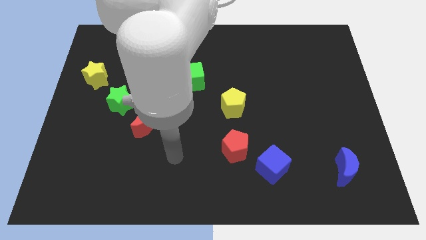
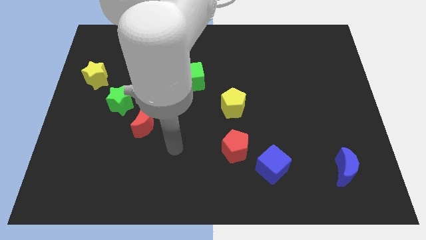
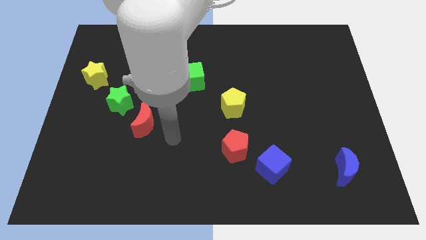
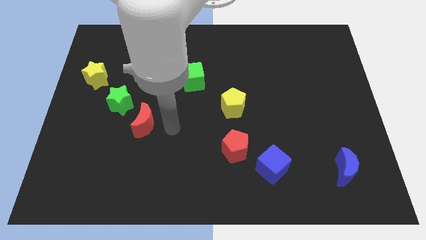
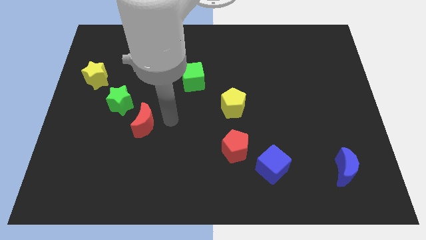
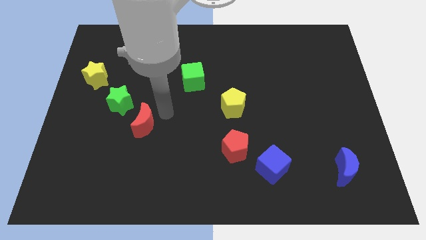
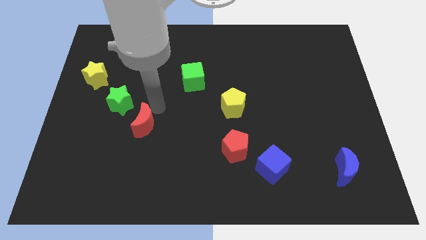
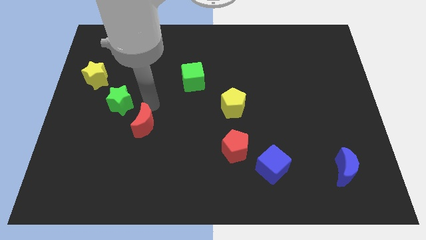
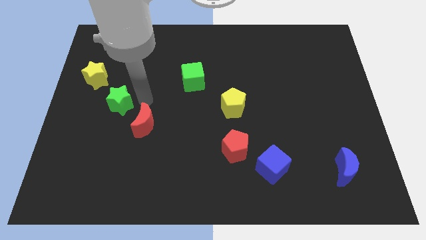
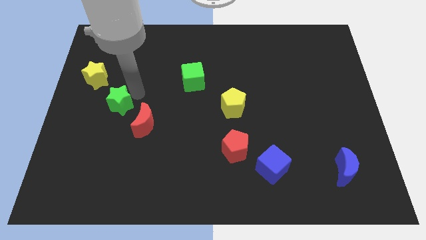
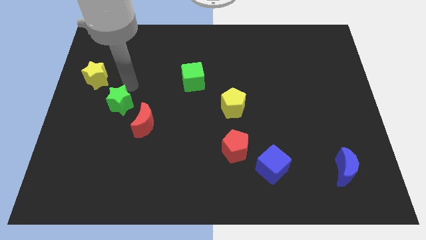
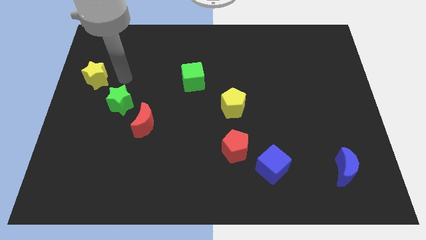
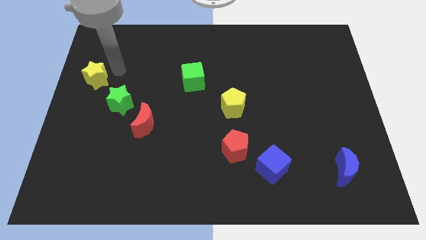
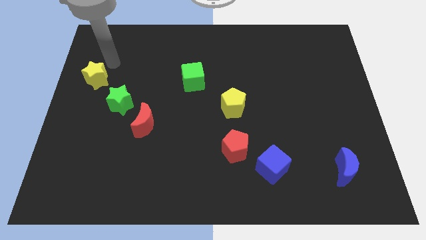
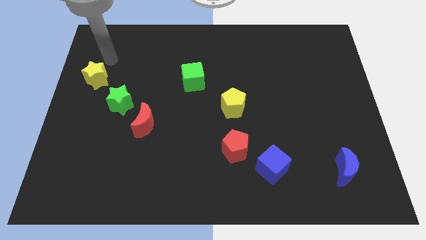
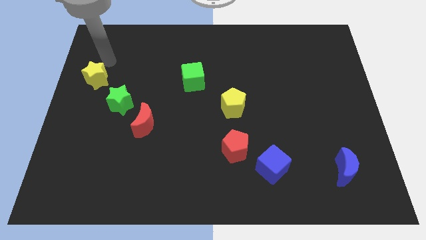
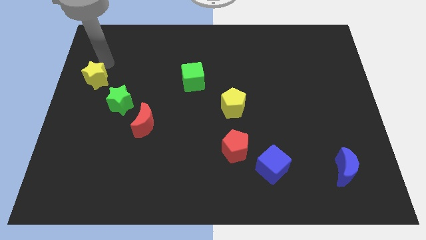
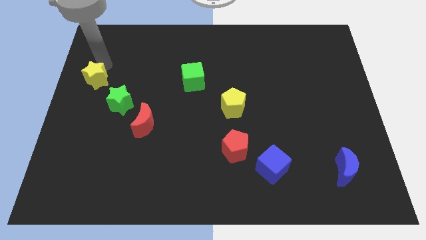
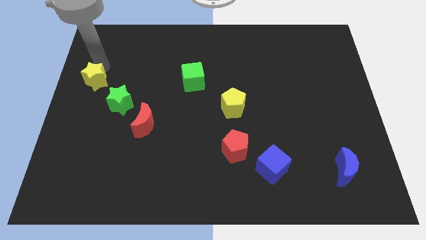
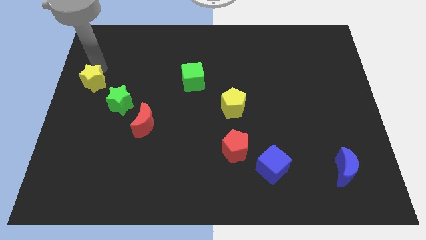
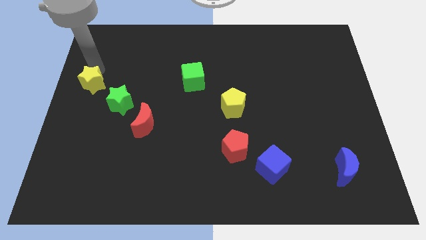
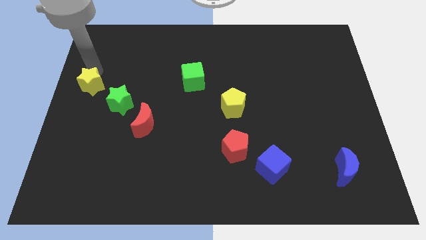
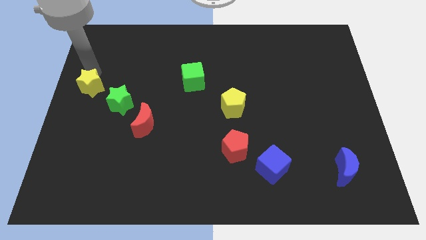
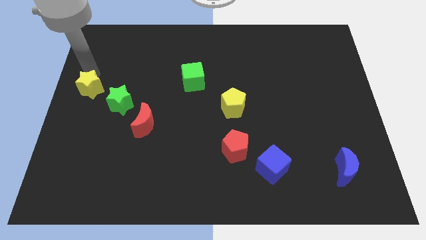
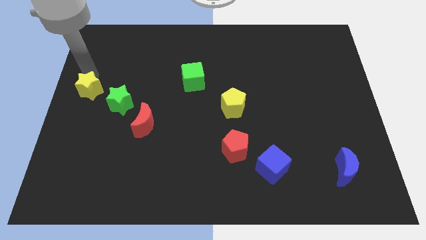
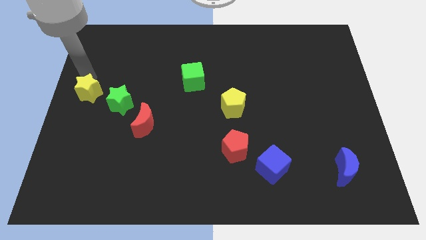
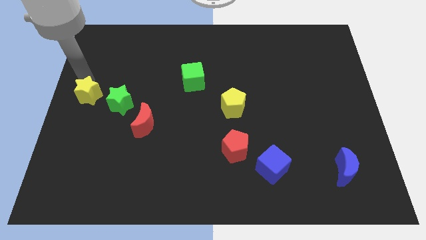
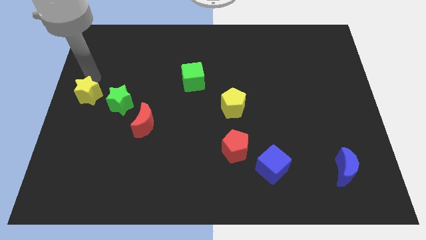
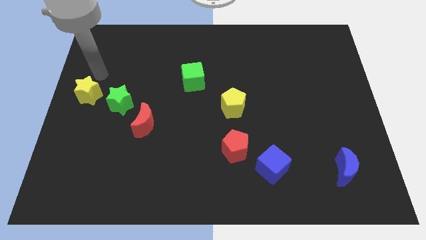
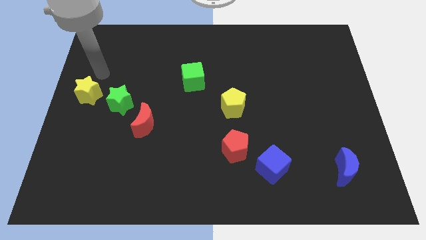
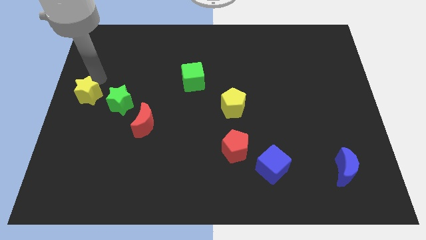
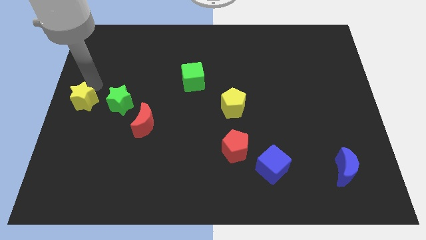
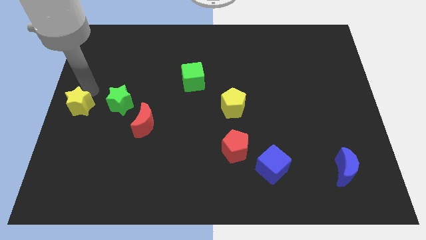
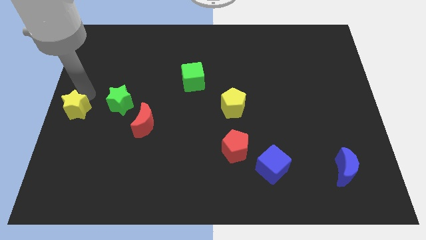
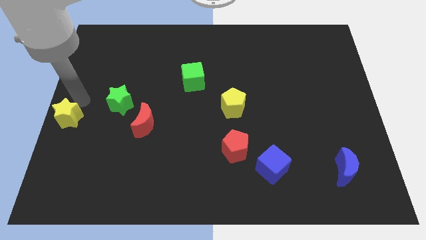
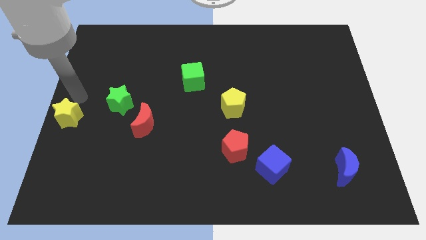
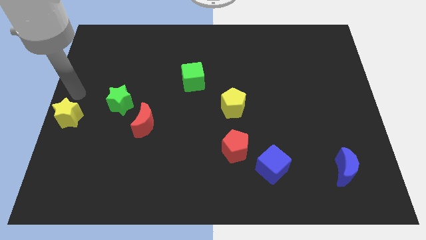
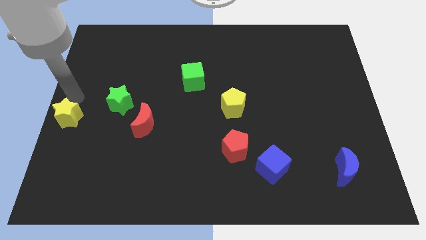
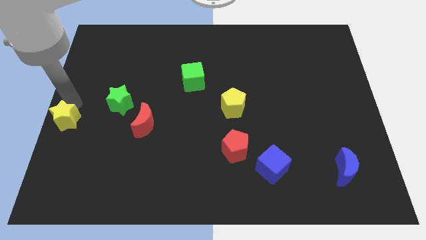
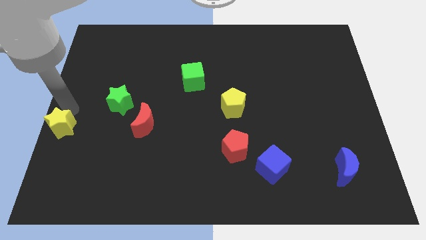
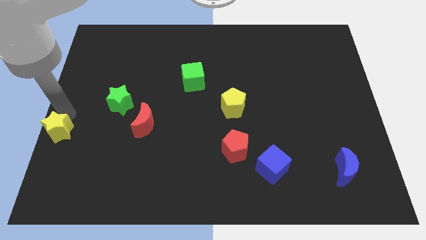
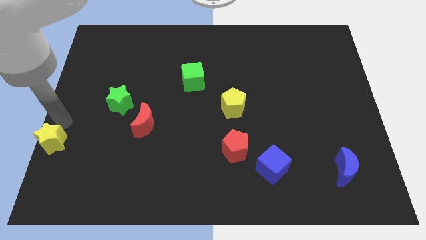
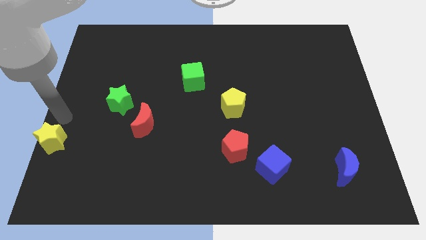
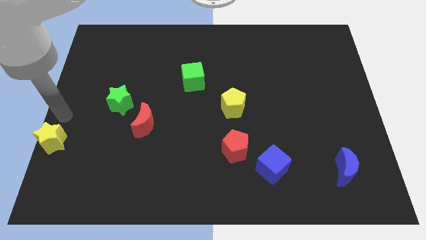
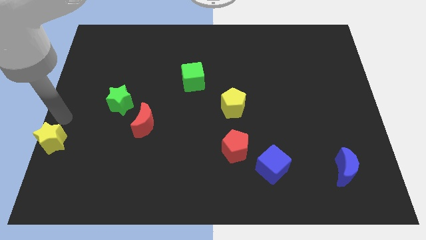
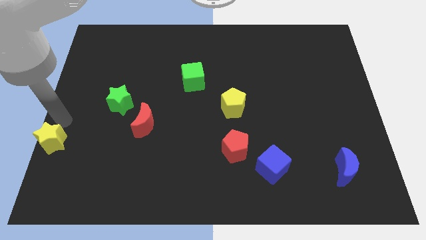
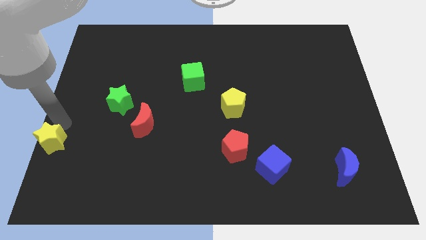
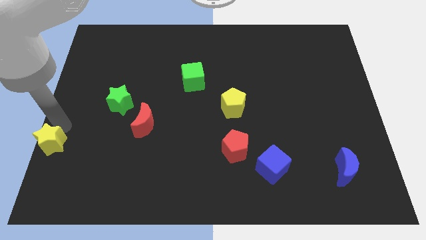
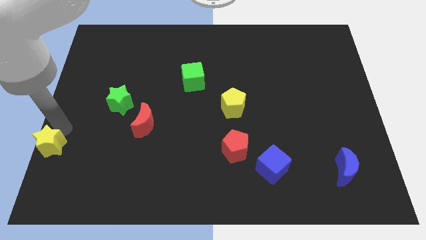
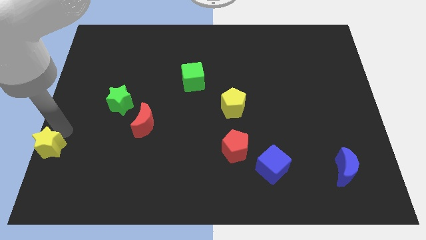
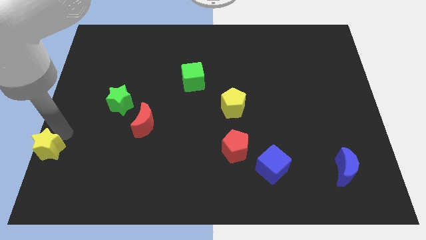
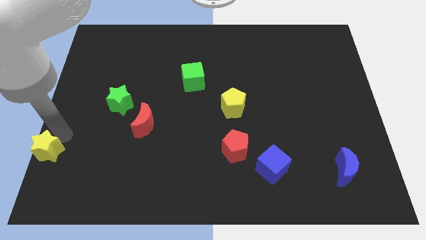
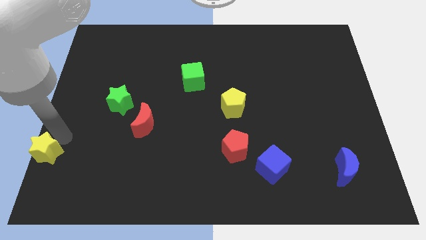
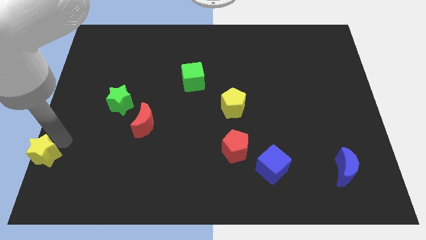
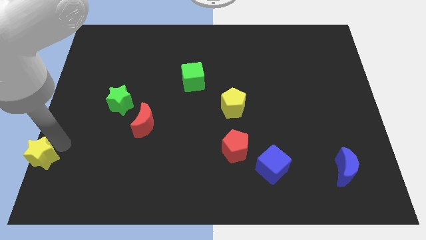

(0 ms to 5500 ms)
put the yellow star to the bottom left corner

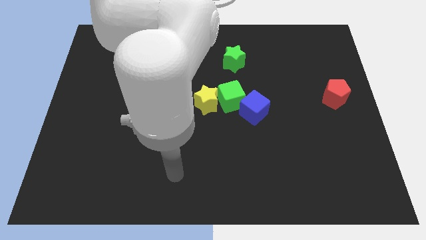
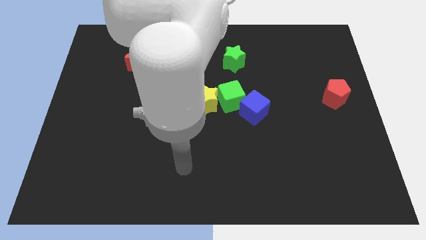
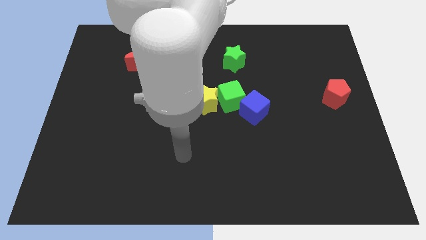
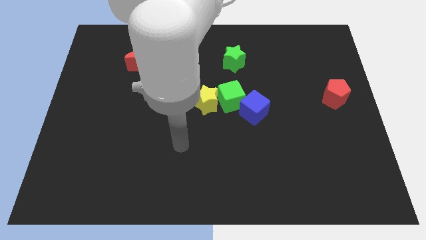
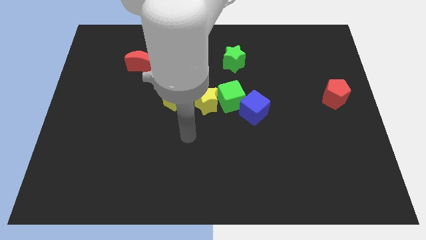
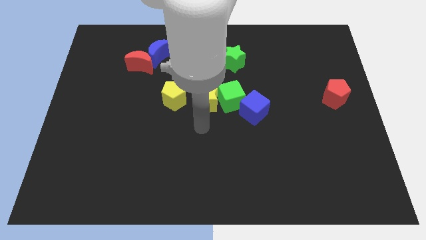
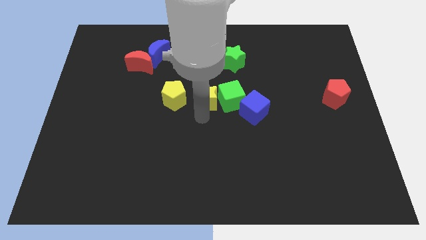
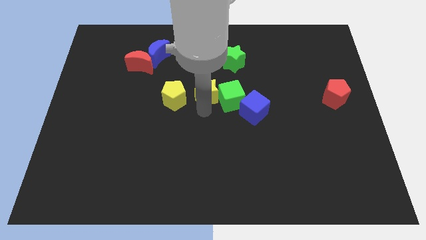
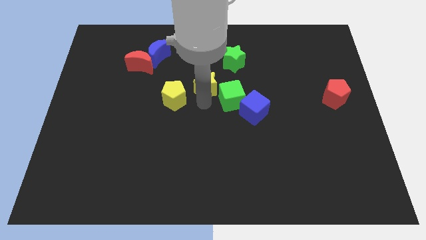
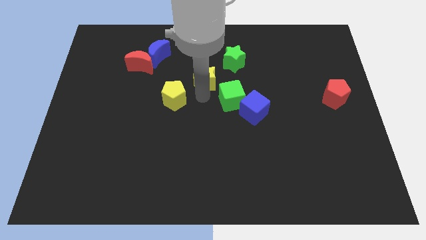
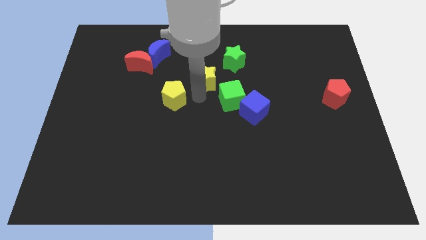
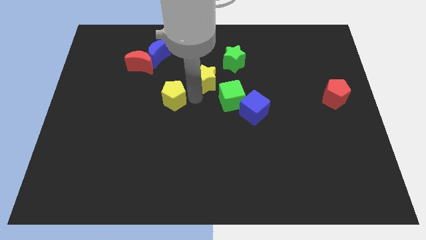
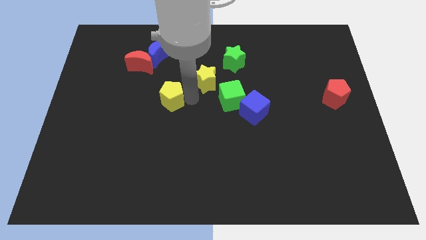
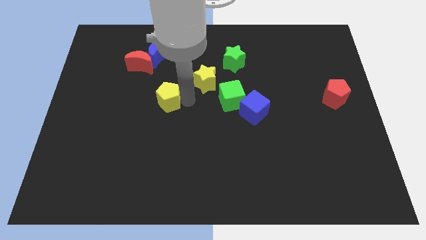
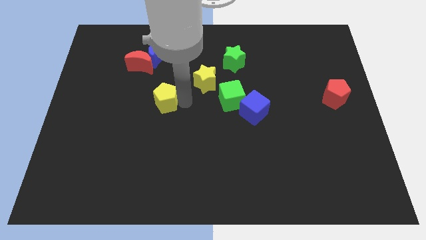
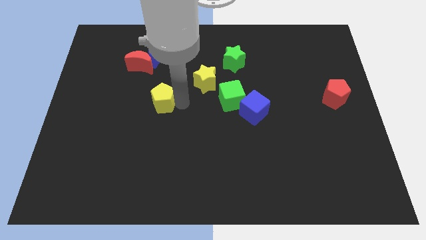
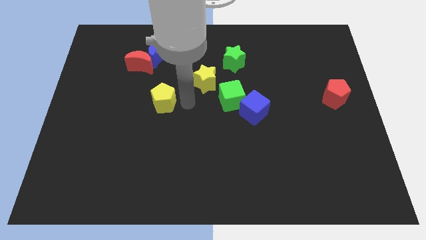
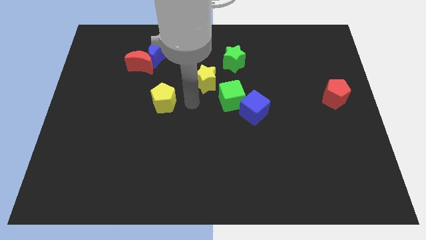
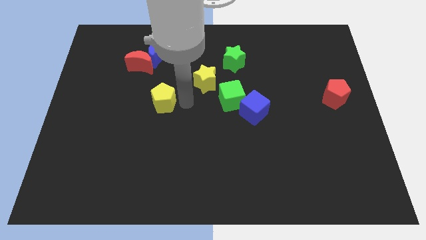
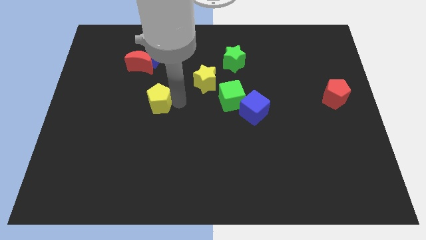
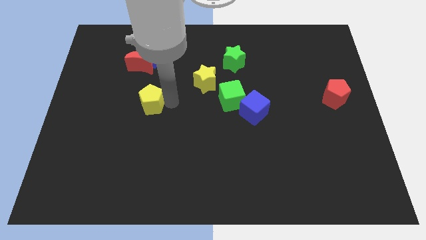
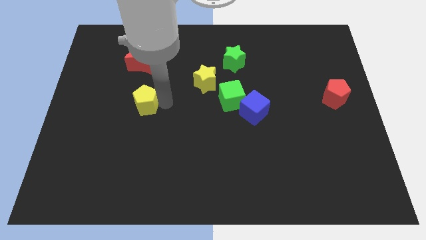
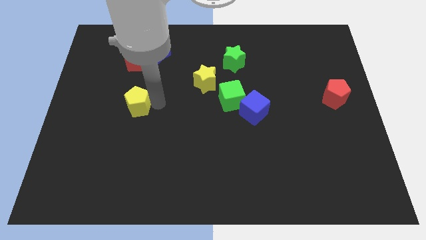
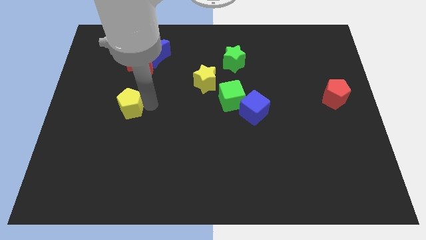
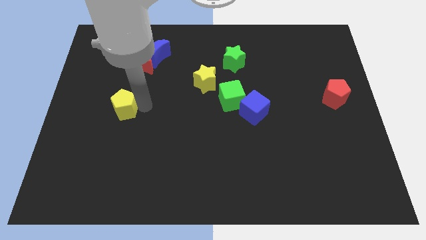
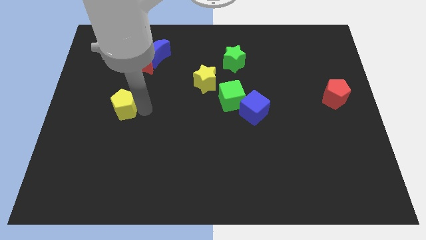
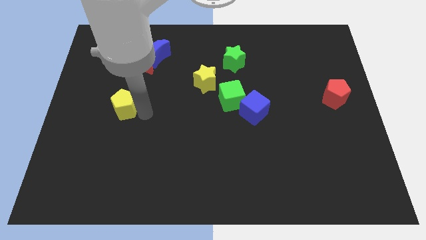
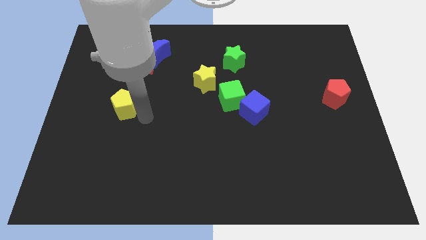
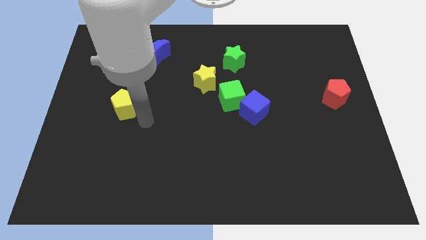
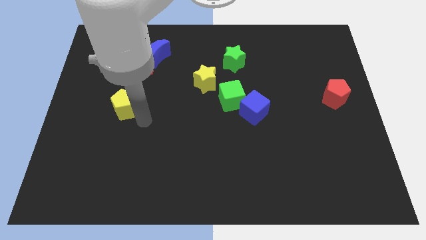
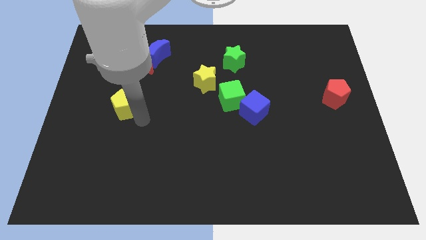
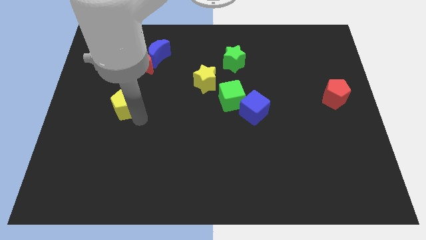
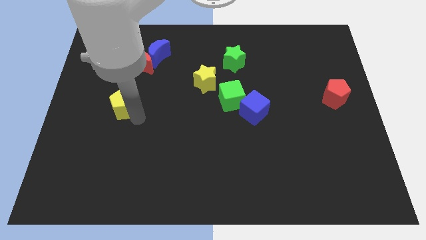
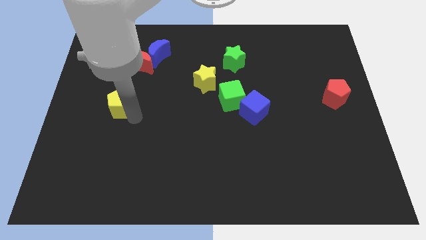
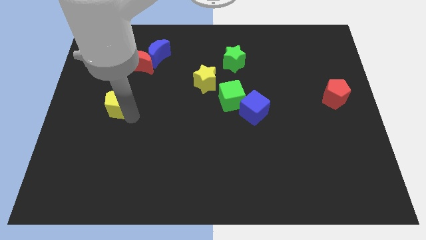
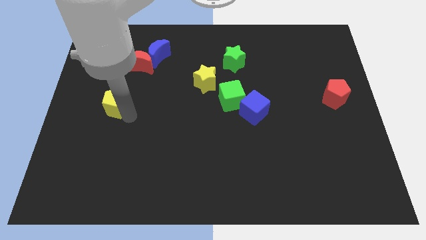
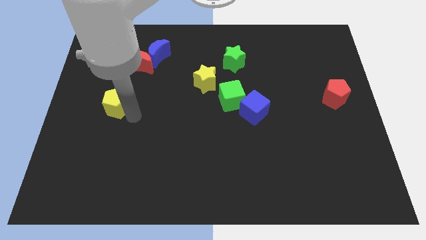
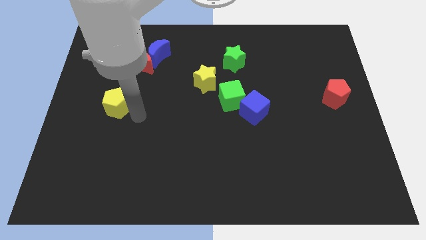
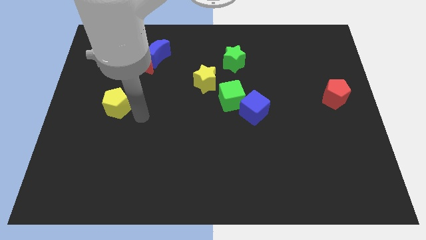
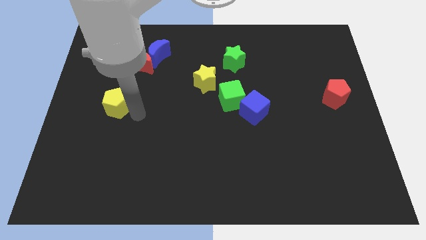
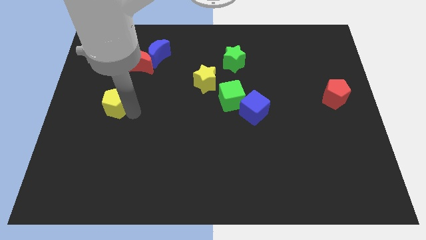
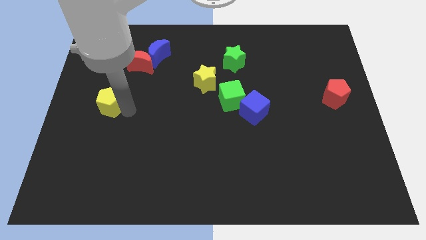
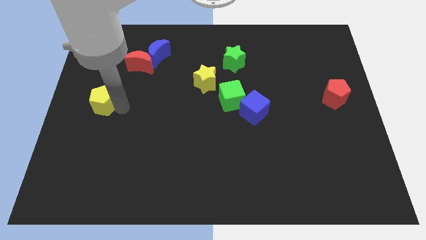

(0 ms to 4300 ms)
slide the yellow pentagon to the left side
